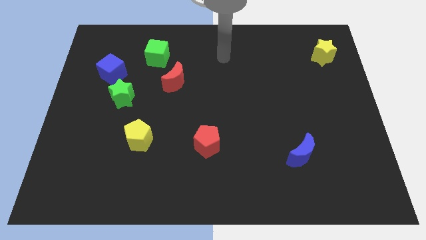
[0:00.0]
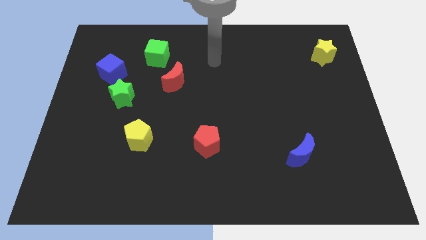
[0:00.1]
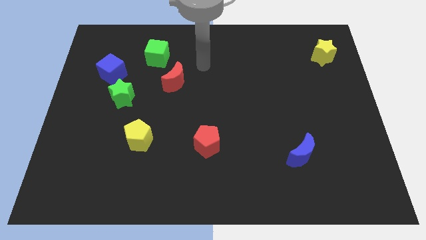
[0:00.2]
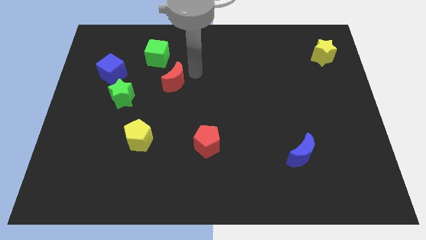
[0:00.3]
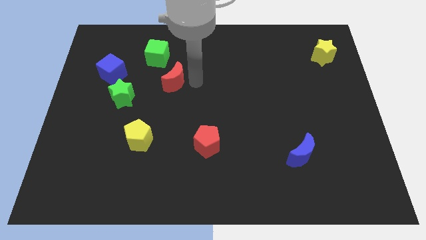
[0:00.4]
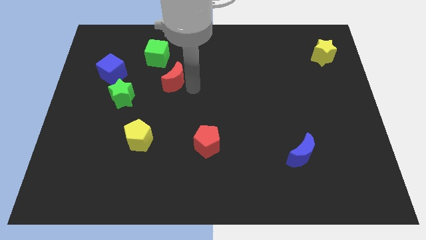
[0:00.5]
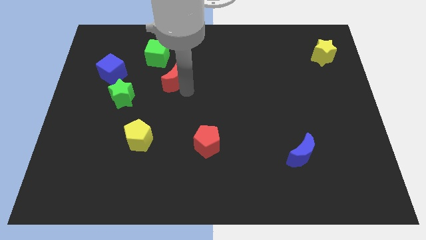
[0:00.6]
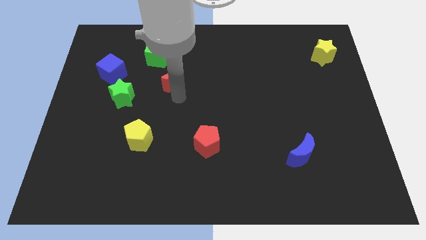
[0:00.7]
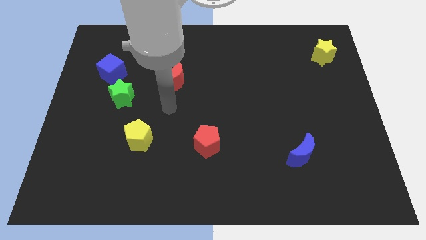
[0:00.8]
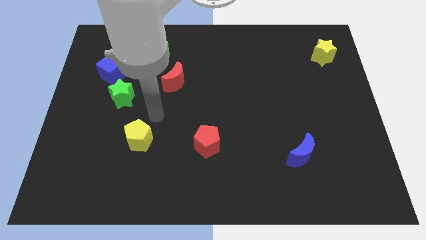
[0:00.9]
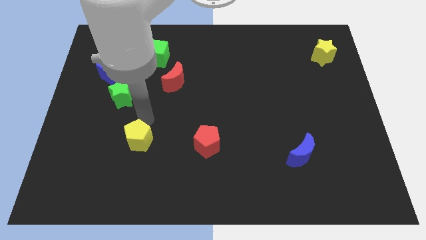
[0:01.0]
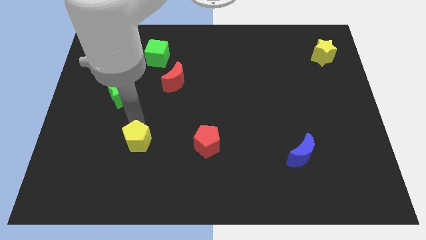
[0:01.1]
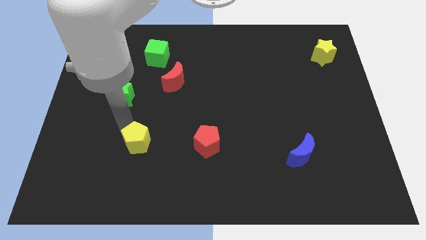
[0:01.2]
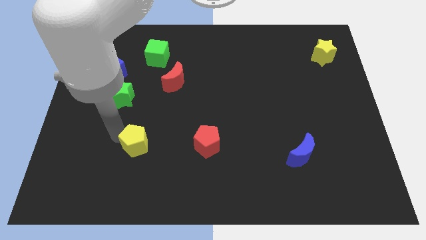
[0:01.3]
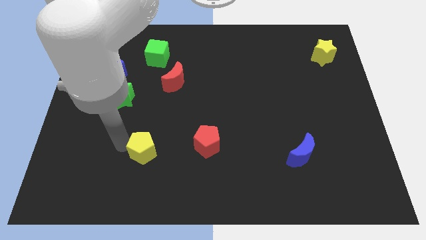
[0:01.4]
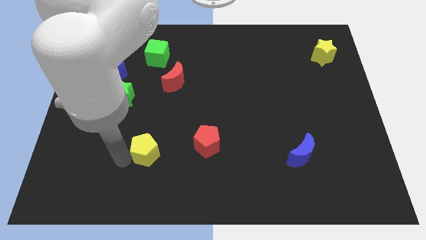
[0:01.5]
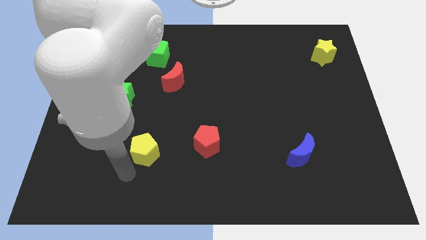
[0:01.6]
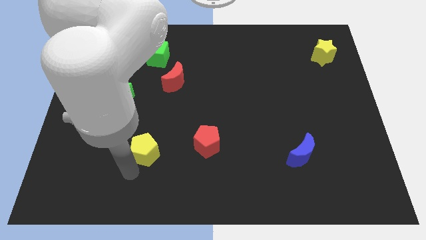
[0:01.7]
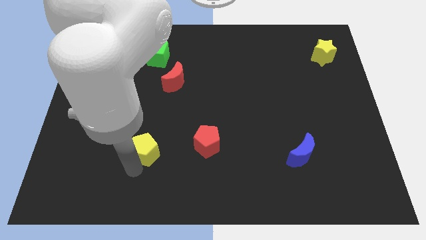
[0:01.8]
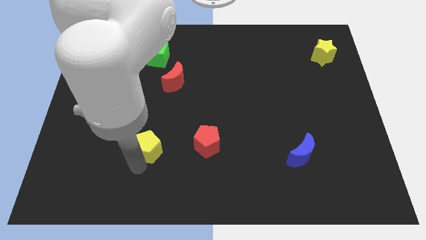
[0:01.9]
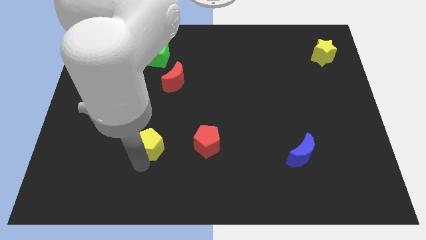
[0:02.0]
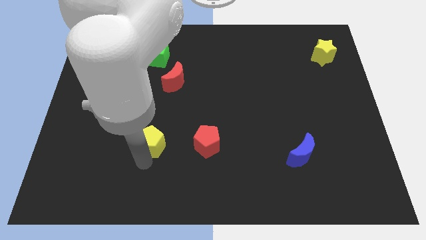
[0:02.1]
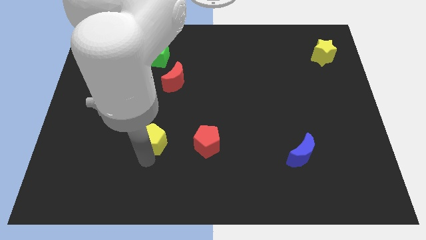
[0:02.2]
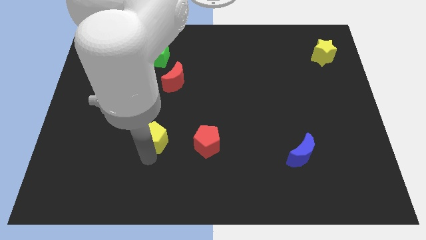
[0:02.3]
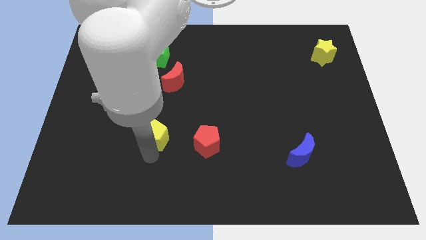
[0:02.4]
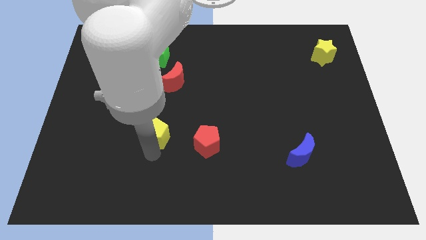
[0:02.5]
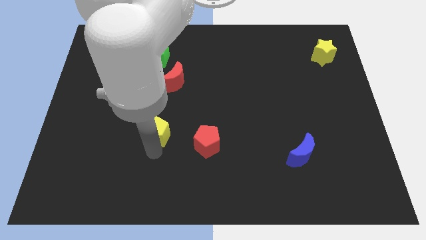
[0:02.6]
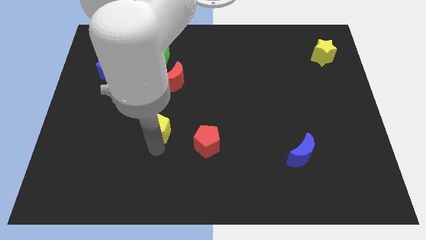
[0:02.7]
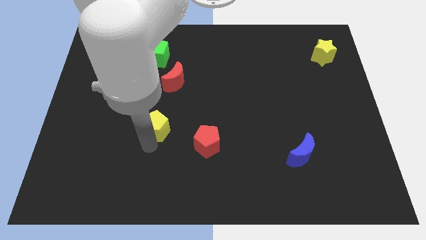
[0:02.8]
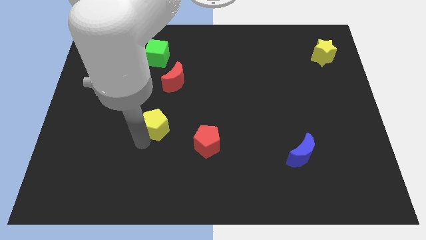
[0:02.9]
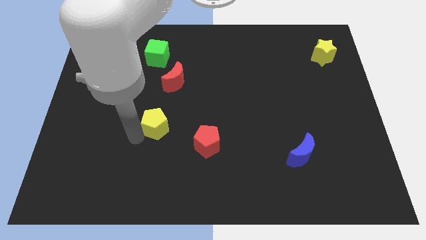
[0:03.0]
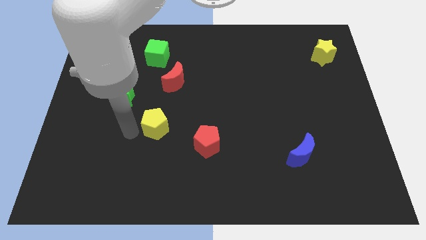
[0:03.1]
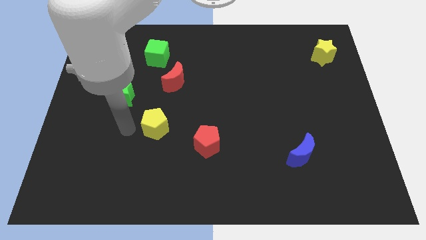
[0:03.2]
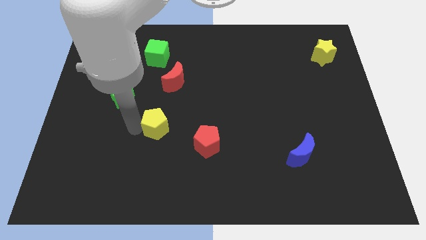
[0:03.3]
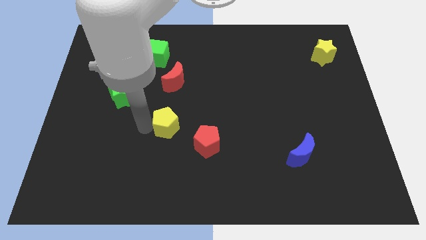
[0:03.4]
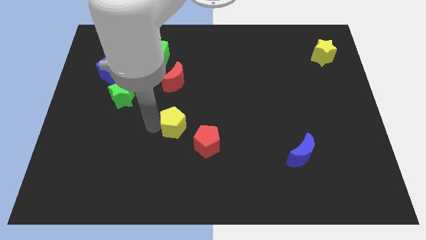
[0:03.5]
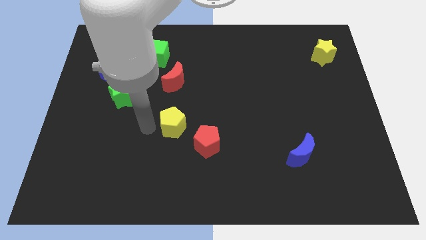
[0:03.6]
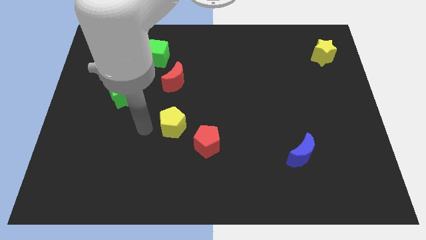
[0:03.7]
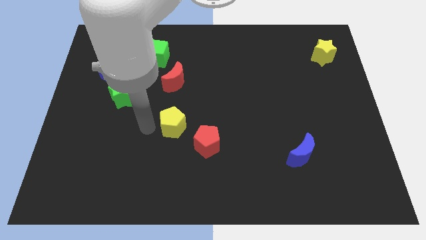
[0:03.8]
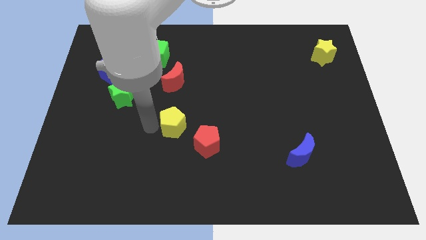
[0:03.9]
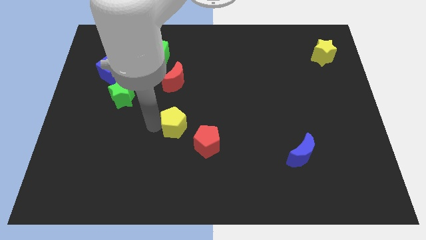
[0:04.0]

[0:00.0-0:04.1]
slightly move the yellow pentagon to the right

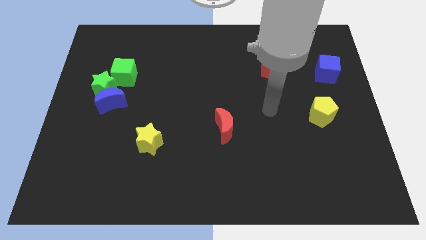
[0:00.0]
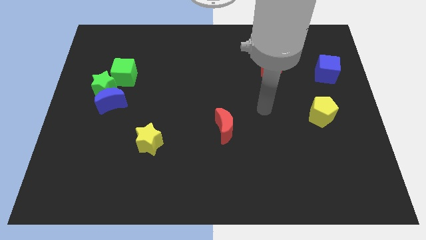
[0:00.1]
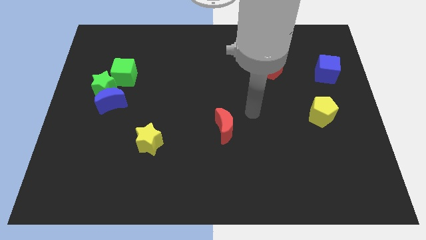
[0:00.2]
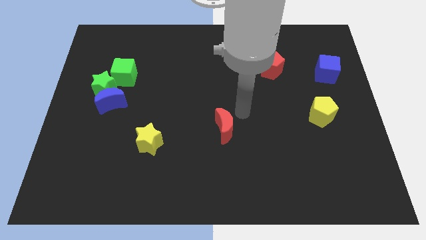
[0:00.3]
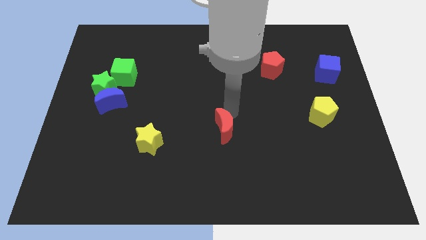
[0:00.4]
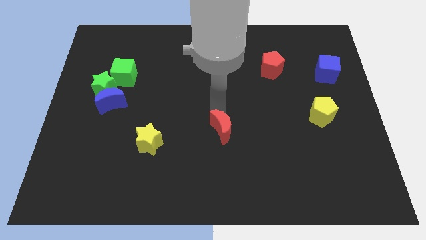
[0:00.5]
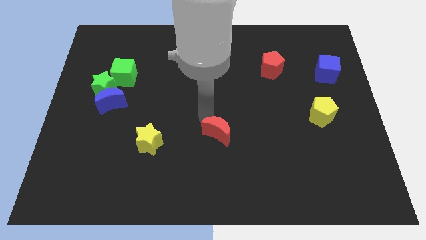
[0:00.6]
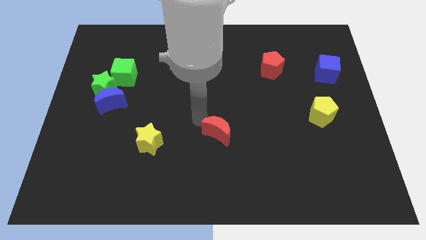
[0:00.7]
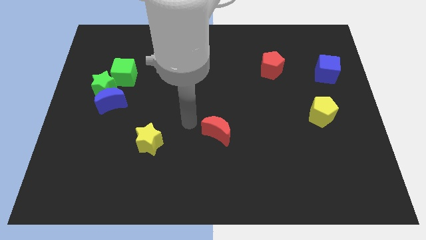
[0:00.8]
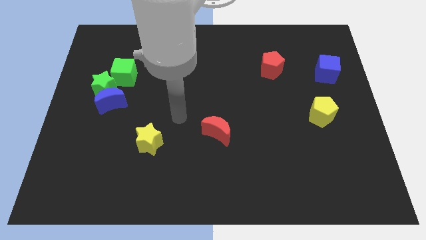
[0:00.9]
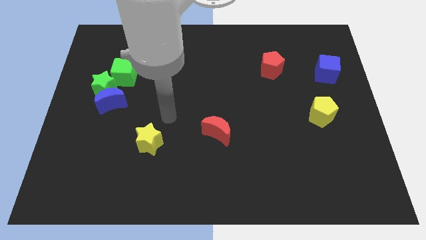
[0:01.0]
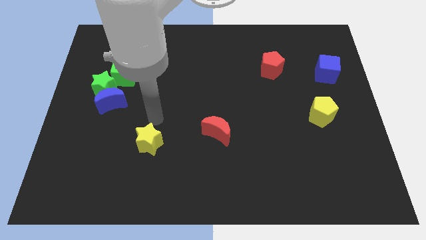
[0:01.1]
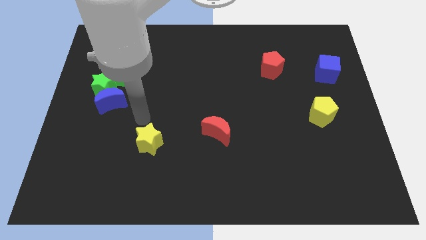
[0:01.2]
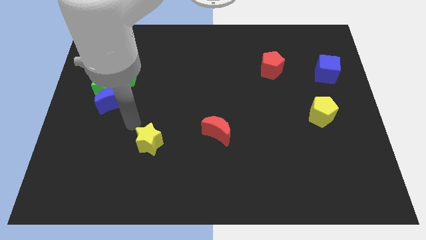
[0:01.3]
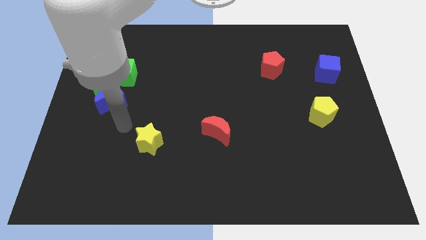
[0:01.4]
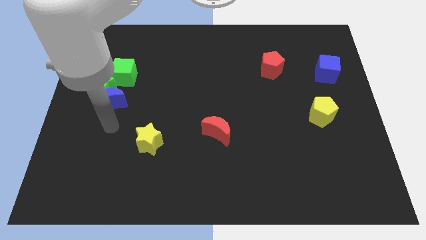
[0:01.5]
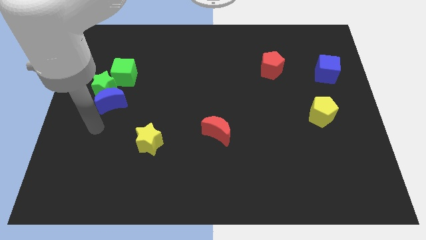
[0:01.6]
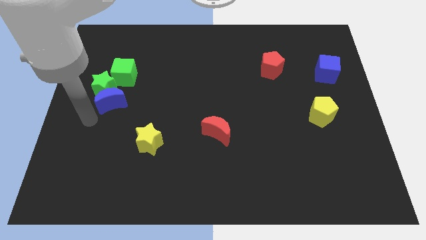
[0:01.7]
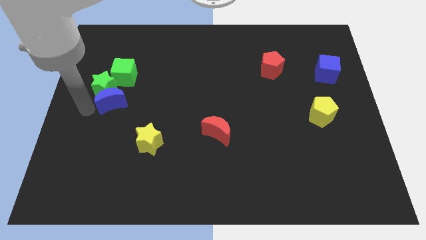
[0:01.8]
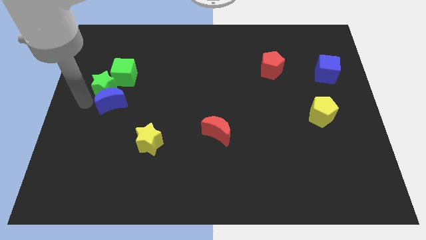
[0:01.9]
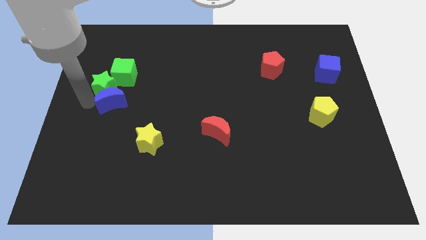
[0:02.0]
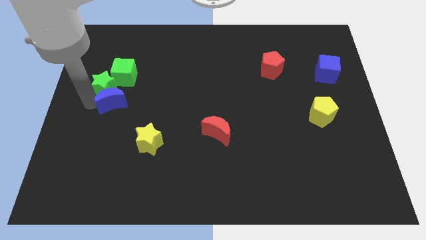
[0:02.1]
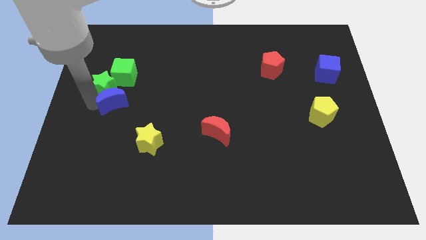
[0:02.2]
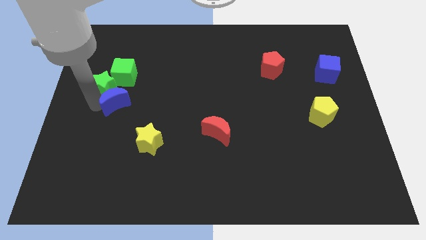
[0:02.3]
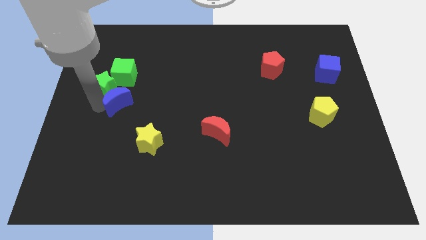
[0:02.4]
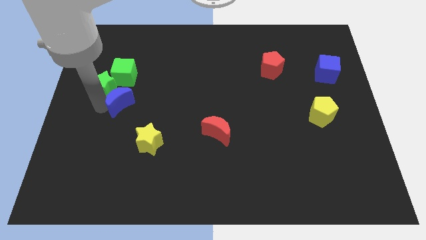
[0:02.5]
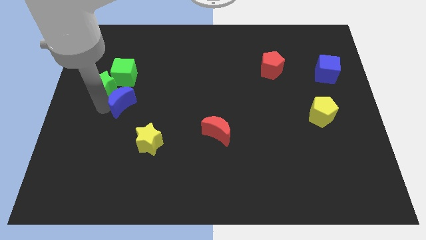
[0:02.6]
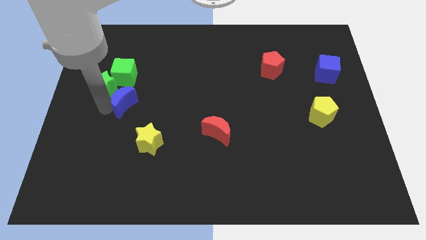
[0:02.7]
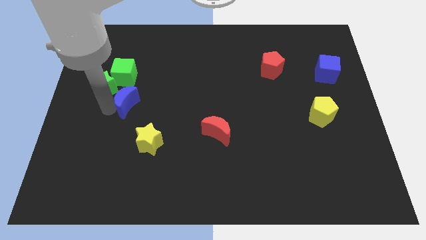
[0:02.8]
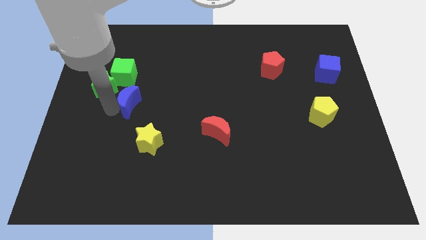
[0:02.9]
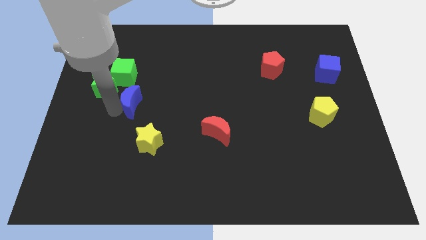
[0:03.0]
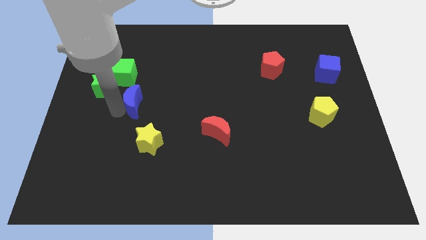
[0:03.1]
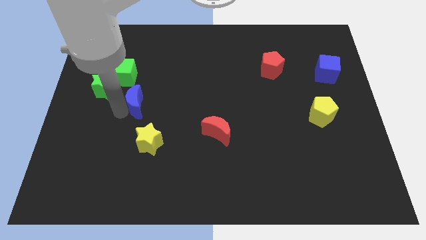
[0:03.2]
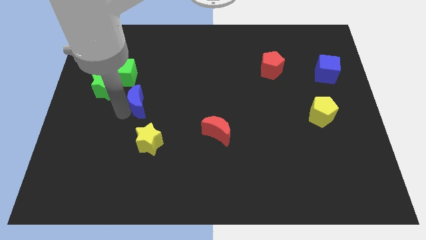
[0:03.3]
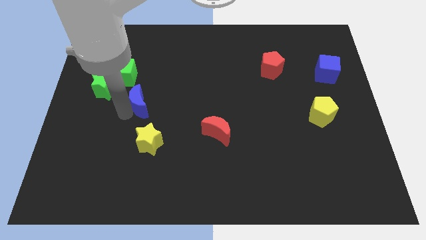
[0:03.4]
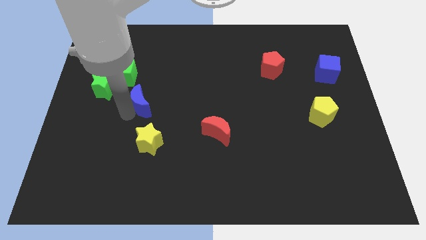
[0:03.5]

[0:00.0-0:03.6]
push the blue moon to the right slightly

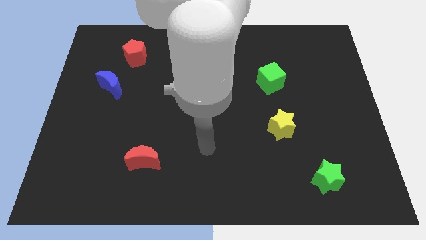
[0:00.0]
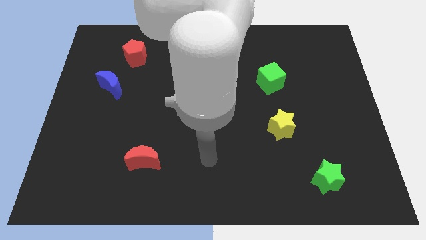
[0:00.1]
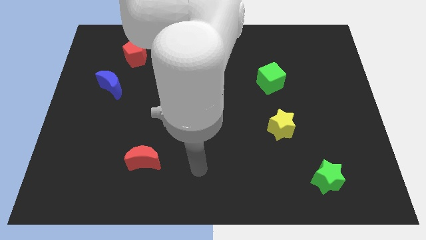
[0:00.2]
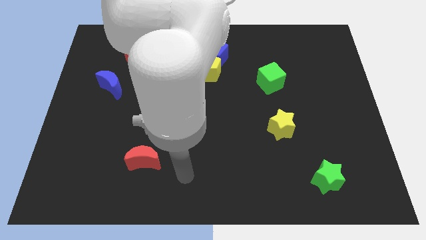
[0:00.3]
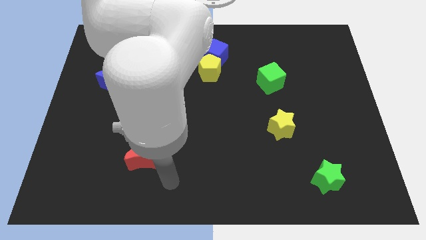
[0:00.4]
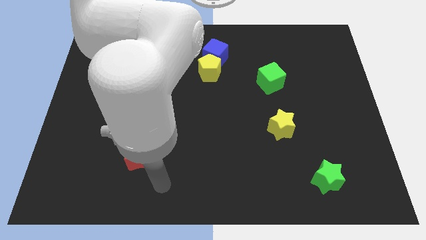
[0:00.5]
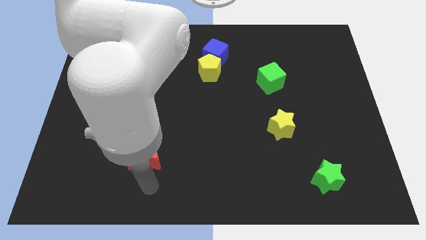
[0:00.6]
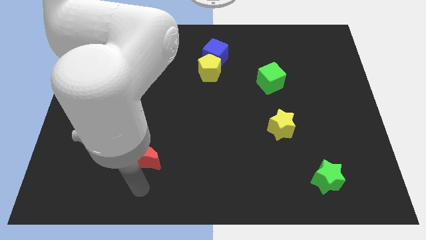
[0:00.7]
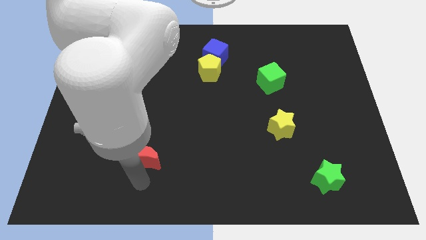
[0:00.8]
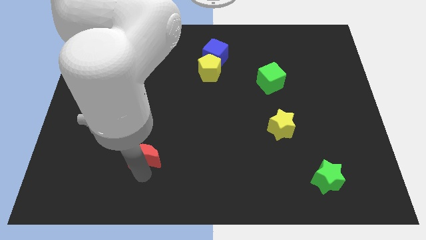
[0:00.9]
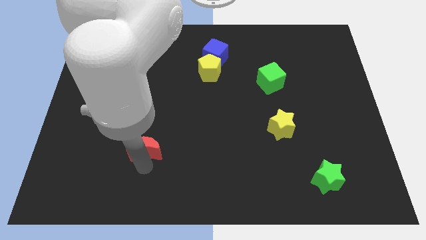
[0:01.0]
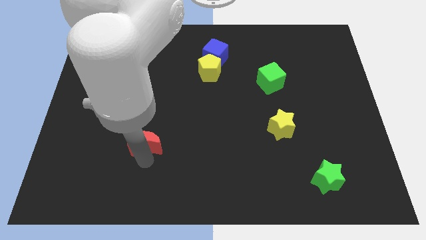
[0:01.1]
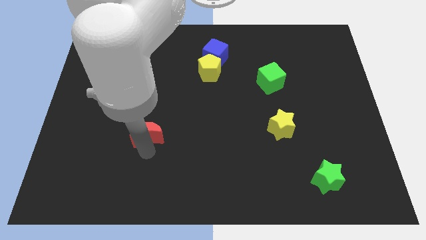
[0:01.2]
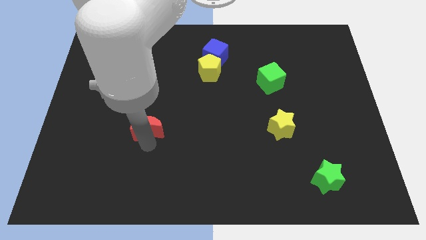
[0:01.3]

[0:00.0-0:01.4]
slightly slide the red moon upwards
